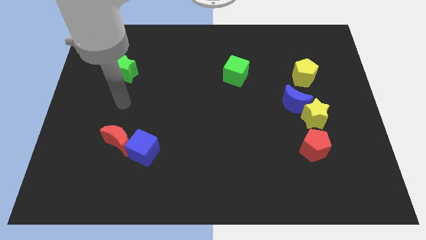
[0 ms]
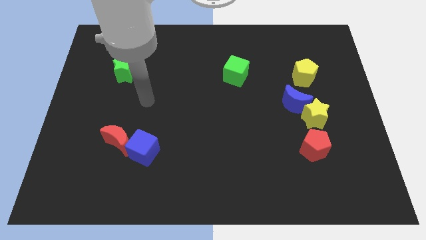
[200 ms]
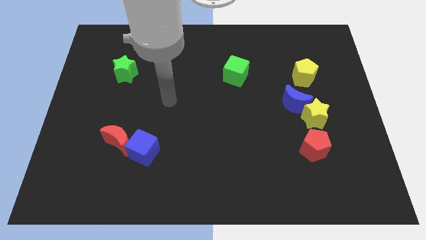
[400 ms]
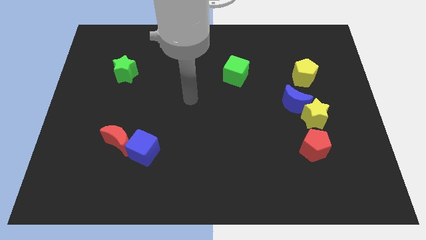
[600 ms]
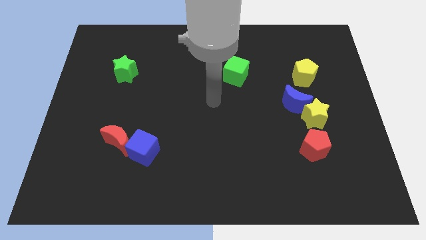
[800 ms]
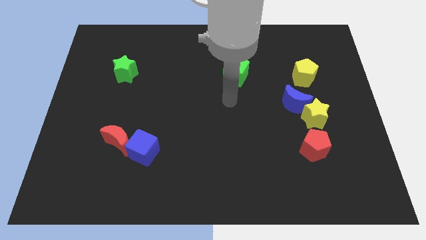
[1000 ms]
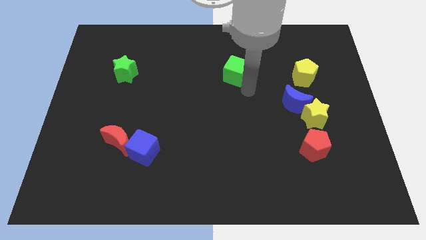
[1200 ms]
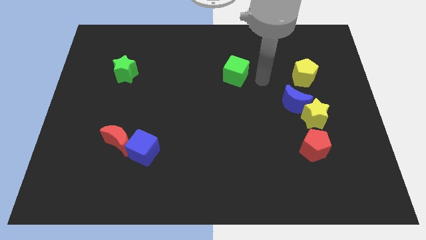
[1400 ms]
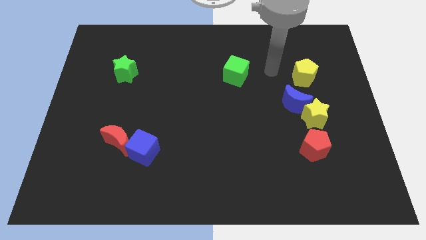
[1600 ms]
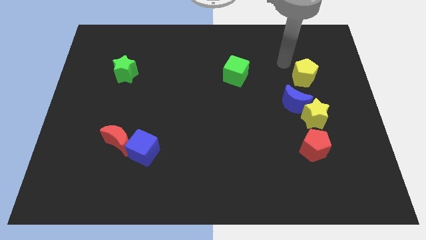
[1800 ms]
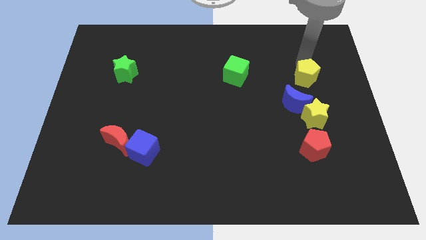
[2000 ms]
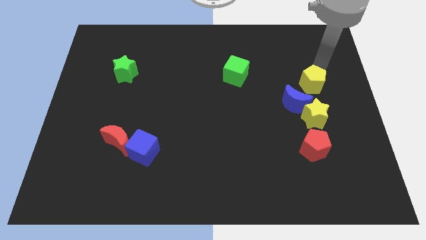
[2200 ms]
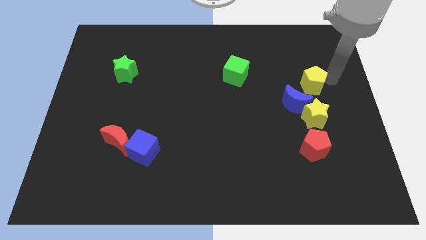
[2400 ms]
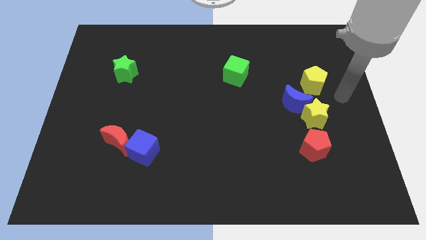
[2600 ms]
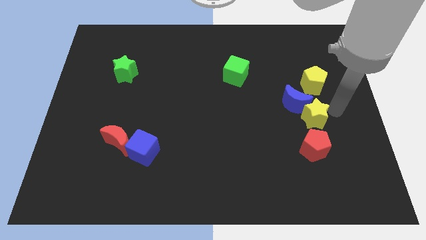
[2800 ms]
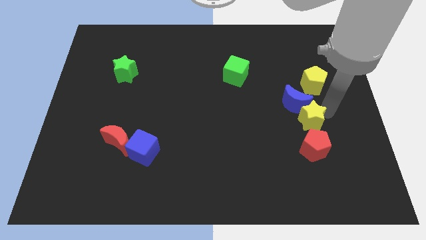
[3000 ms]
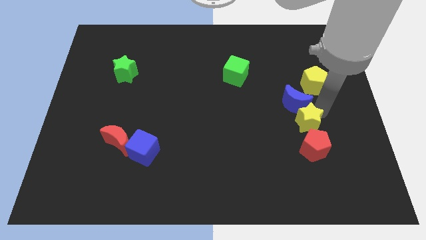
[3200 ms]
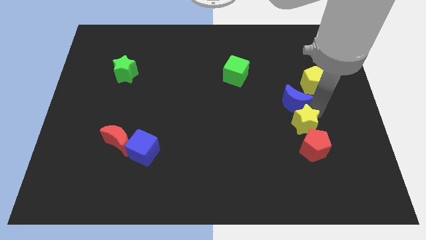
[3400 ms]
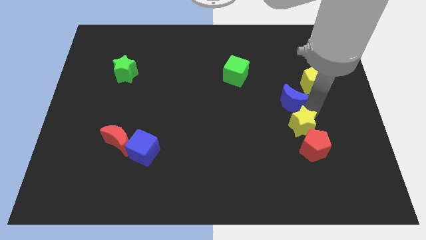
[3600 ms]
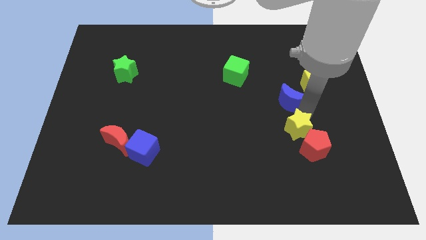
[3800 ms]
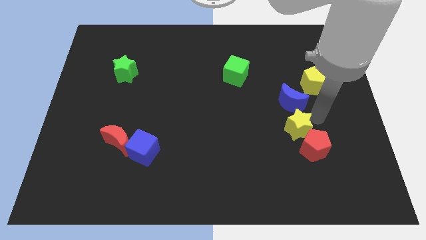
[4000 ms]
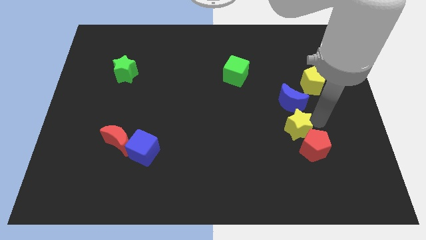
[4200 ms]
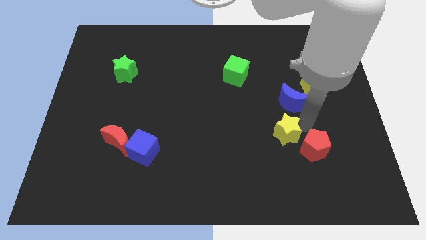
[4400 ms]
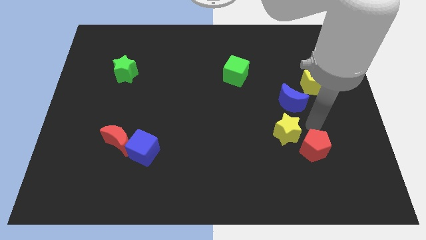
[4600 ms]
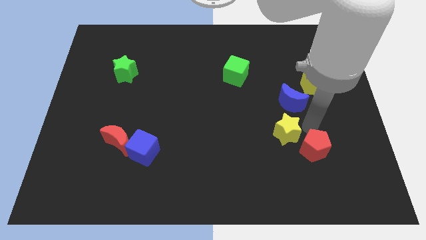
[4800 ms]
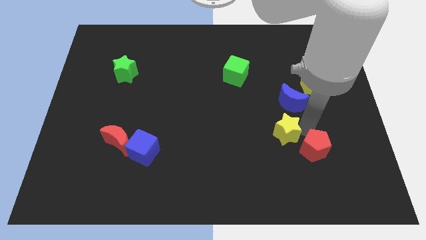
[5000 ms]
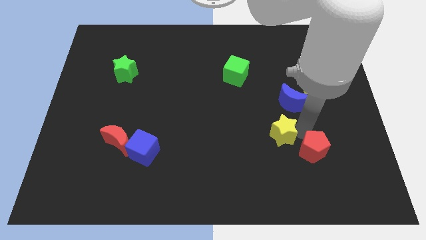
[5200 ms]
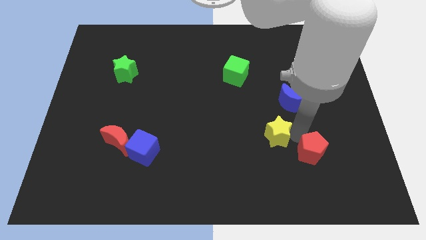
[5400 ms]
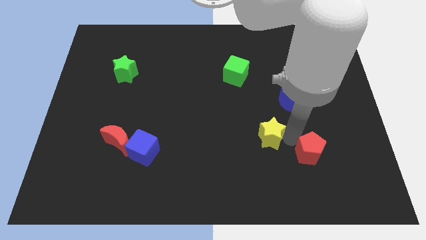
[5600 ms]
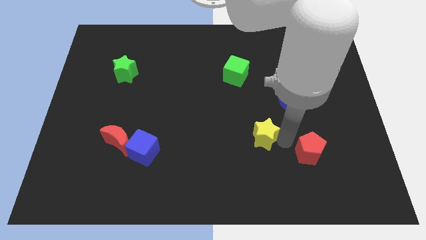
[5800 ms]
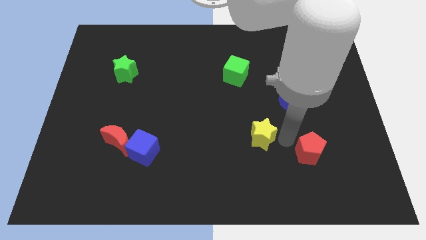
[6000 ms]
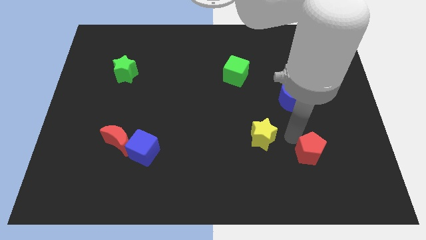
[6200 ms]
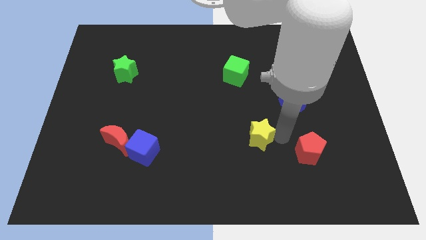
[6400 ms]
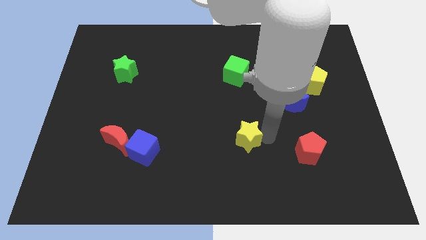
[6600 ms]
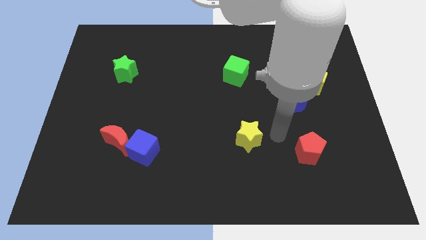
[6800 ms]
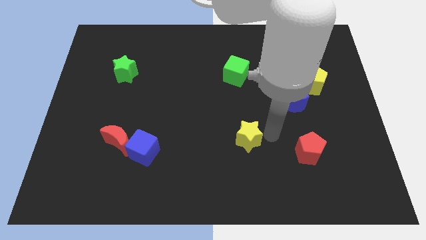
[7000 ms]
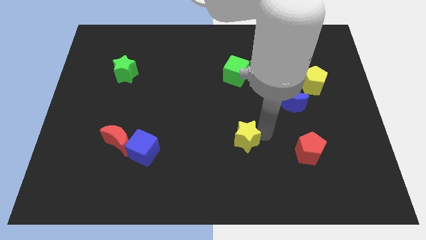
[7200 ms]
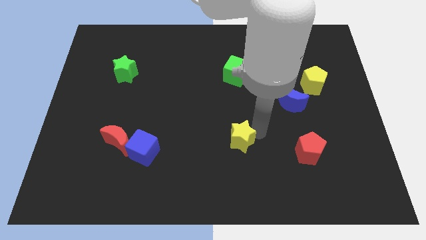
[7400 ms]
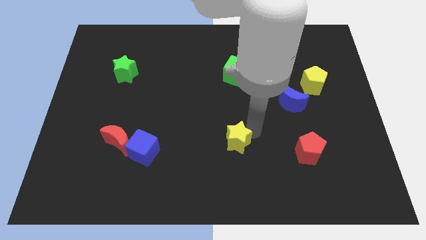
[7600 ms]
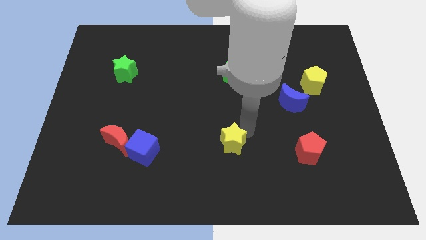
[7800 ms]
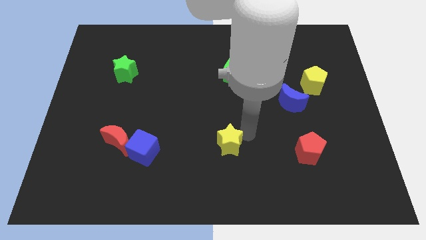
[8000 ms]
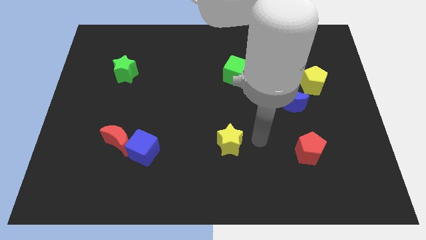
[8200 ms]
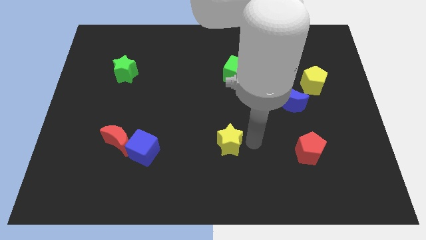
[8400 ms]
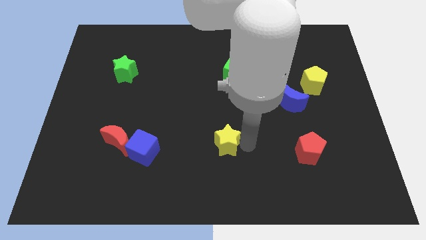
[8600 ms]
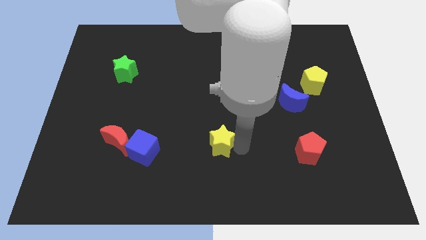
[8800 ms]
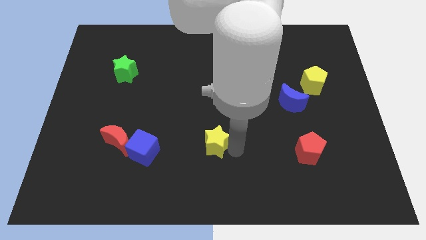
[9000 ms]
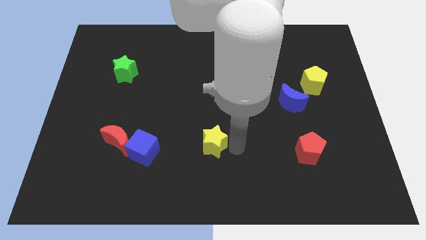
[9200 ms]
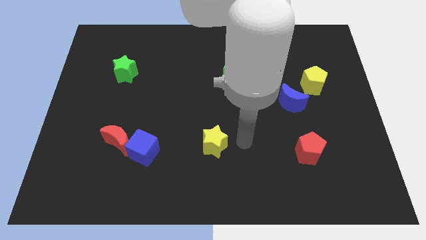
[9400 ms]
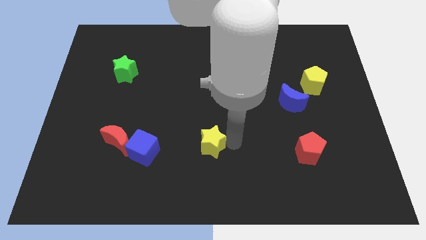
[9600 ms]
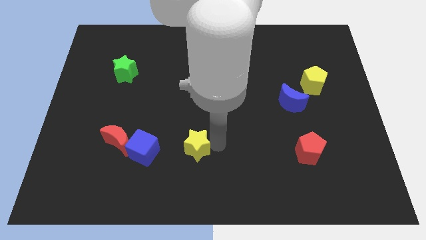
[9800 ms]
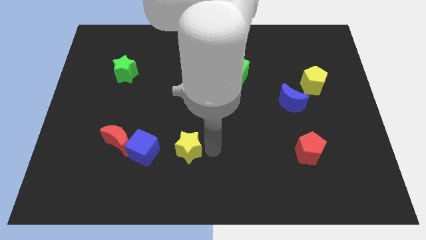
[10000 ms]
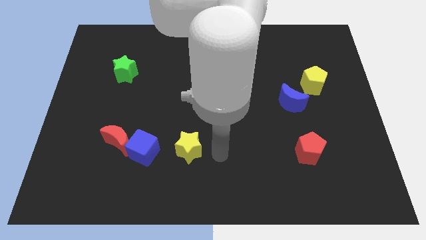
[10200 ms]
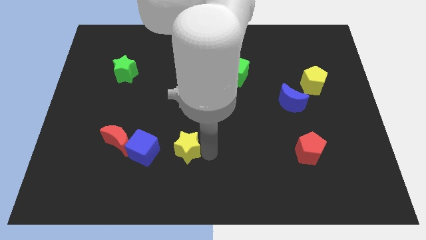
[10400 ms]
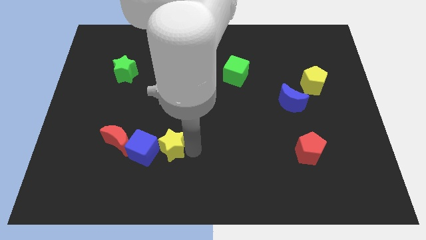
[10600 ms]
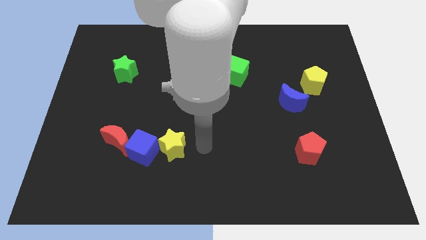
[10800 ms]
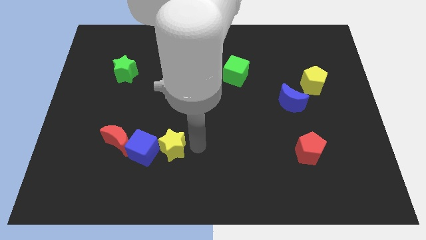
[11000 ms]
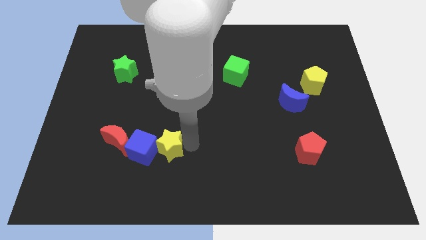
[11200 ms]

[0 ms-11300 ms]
push the yellow star towards the blue cube
